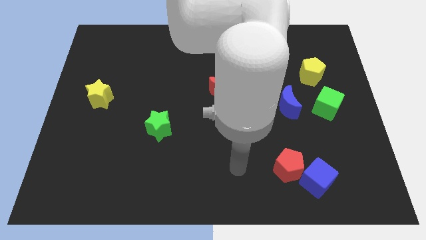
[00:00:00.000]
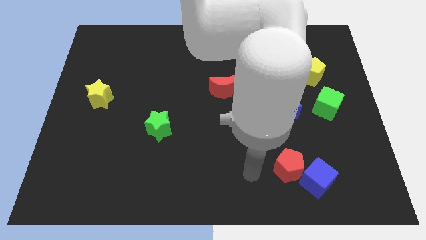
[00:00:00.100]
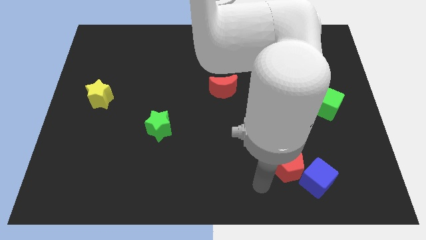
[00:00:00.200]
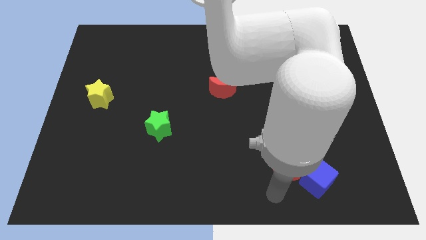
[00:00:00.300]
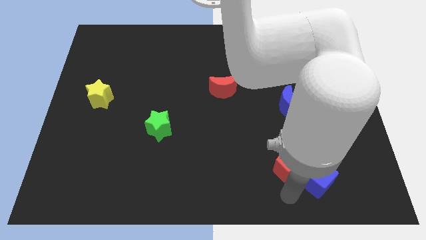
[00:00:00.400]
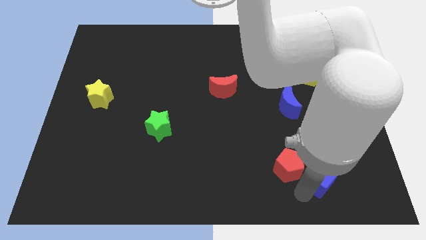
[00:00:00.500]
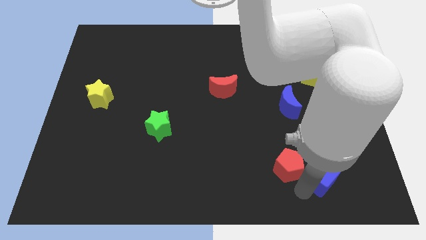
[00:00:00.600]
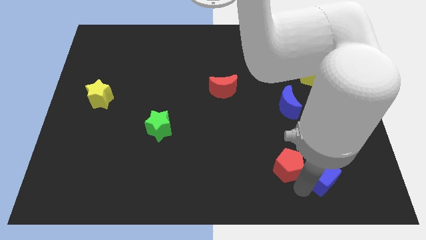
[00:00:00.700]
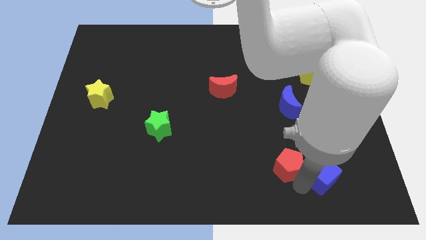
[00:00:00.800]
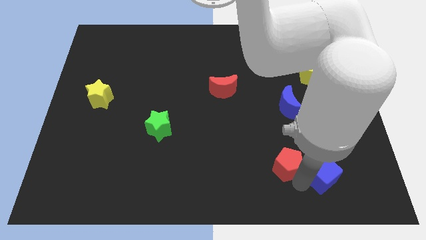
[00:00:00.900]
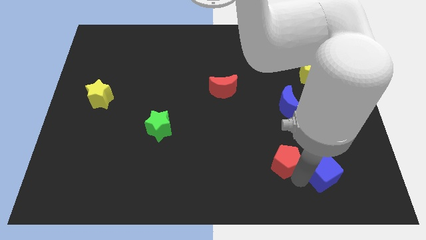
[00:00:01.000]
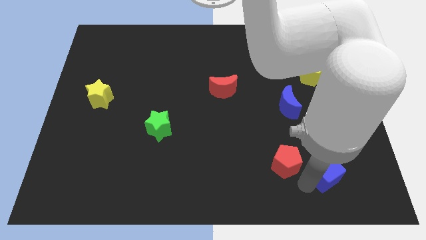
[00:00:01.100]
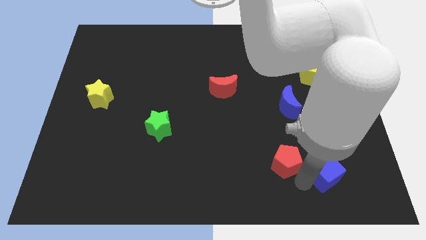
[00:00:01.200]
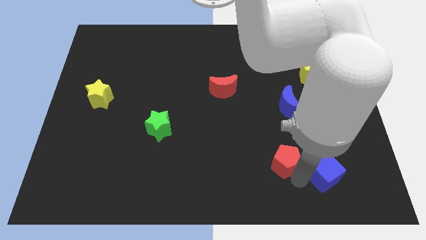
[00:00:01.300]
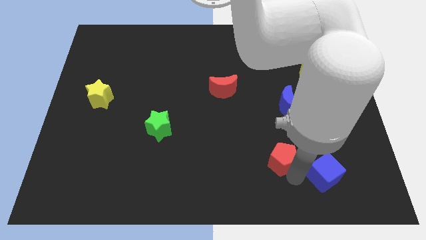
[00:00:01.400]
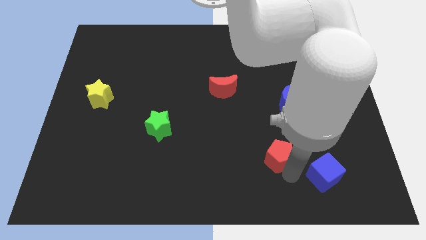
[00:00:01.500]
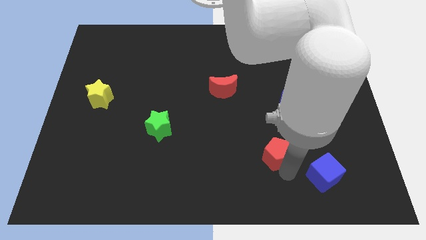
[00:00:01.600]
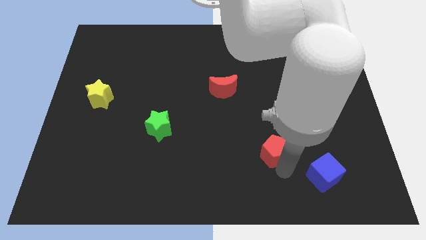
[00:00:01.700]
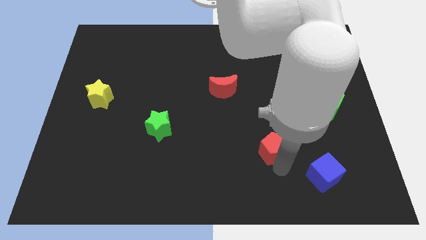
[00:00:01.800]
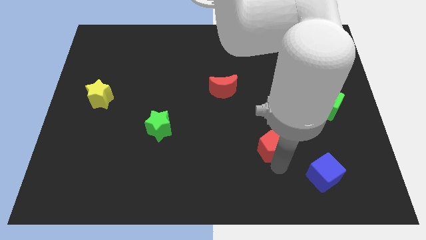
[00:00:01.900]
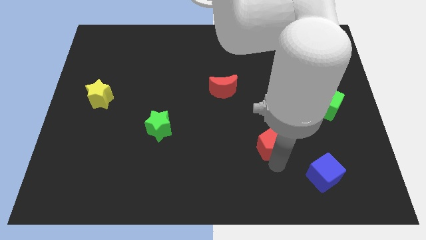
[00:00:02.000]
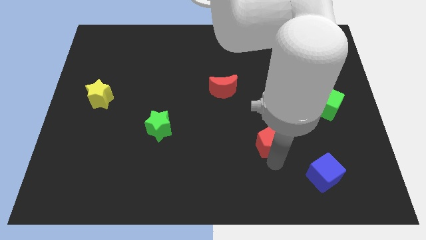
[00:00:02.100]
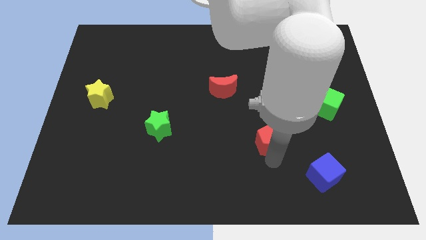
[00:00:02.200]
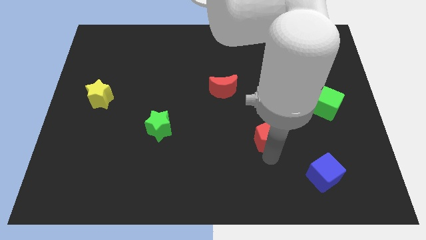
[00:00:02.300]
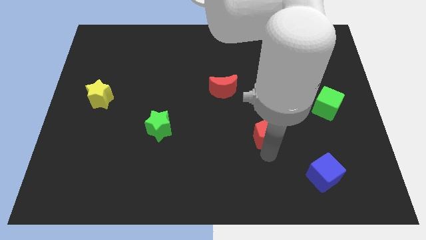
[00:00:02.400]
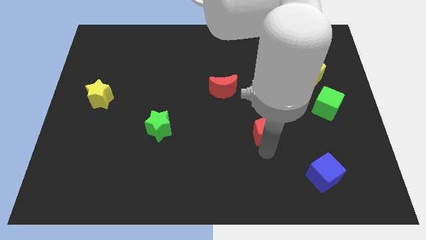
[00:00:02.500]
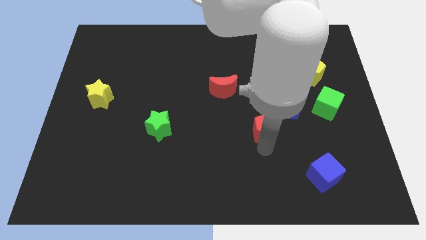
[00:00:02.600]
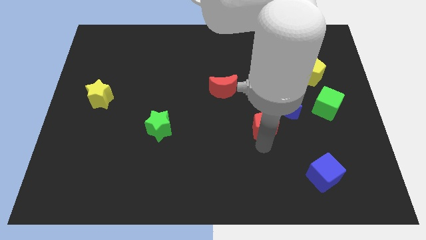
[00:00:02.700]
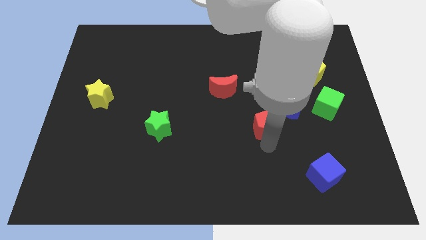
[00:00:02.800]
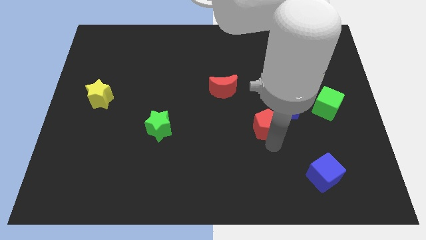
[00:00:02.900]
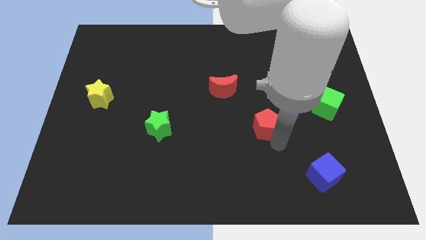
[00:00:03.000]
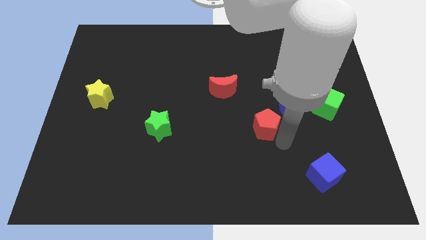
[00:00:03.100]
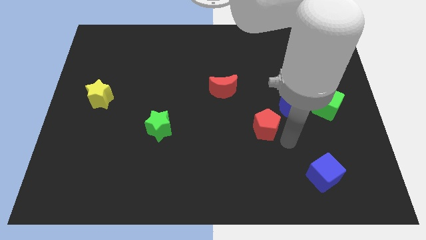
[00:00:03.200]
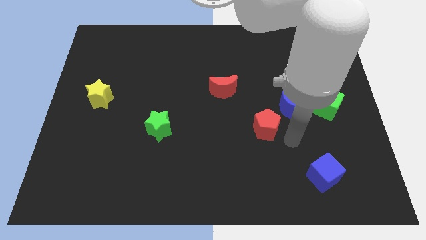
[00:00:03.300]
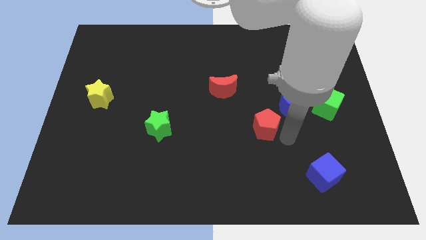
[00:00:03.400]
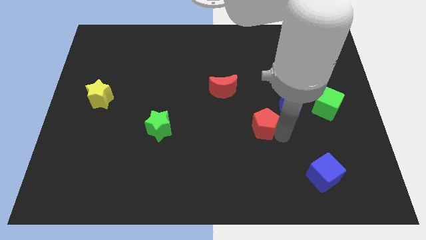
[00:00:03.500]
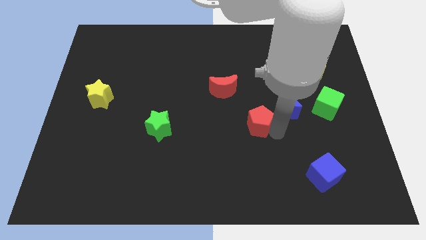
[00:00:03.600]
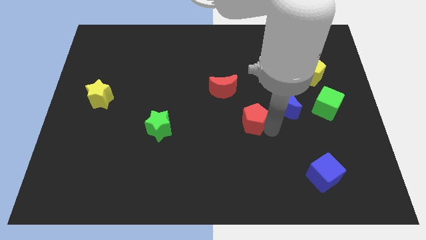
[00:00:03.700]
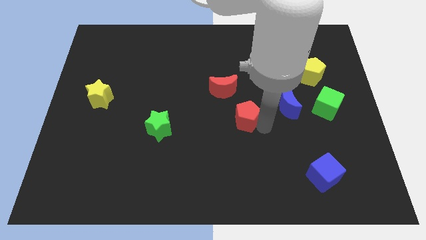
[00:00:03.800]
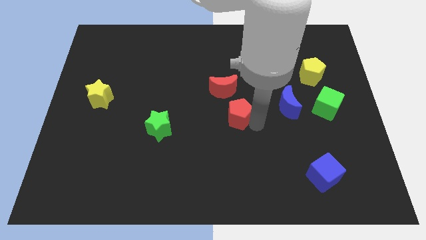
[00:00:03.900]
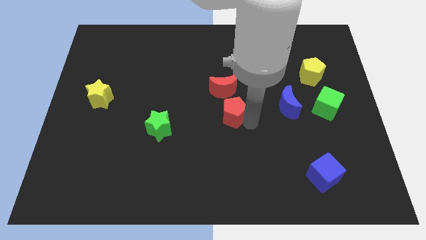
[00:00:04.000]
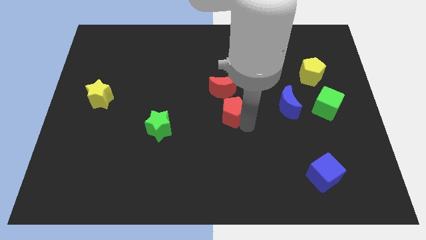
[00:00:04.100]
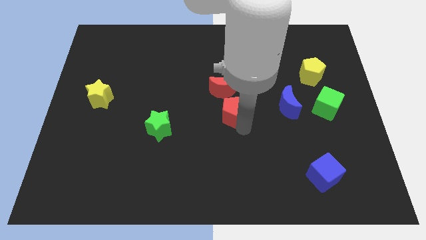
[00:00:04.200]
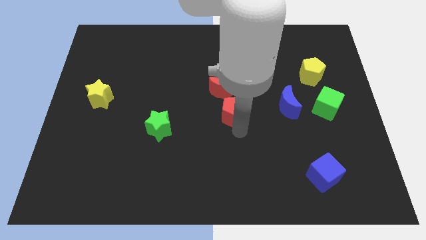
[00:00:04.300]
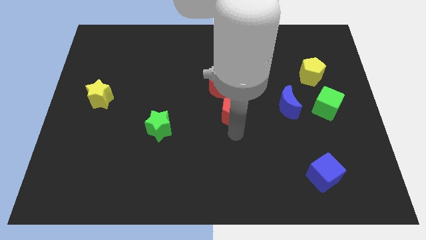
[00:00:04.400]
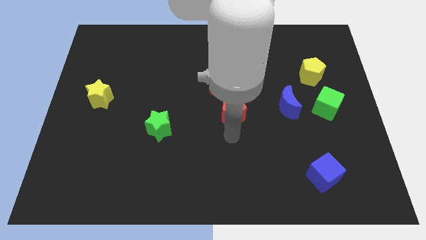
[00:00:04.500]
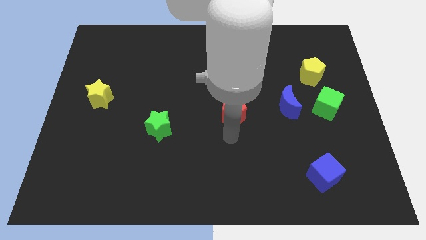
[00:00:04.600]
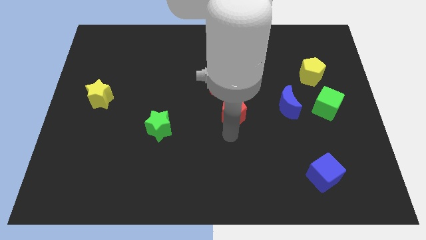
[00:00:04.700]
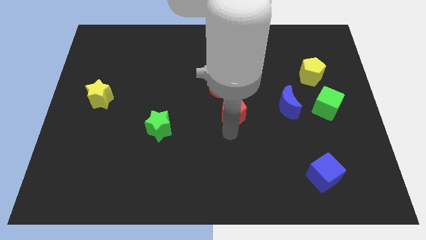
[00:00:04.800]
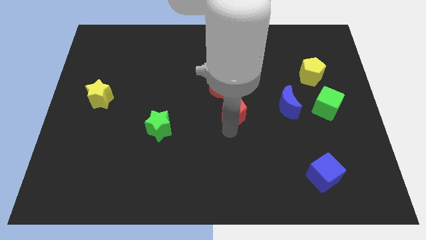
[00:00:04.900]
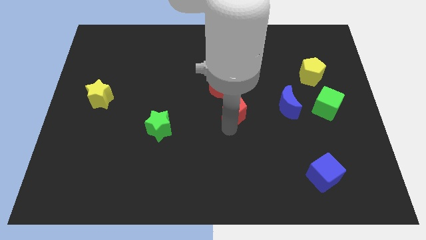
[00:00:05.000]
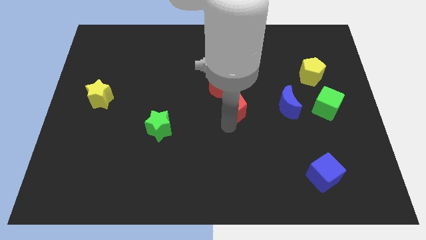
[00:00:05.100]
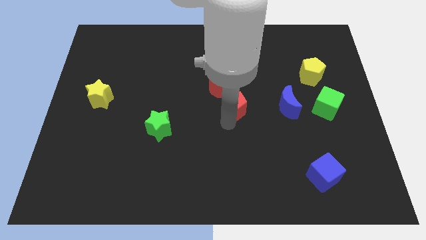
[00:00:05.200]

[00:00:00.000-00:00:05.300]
push the red pentagon to the red moon

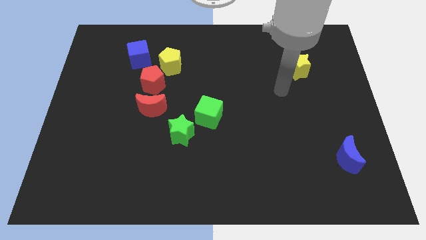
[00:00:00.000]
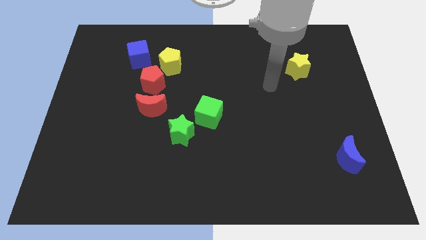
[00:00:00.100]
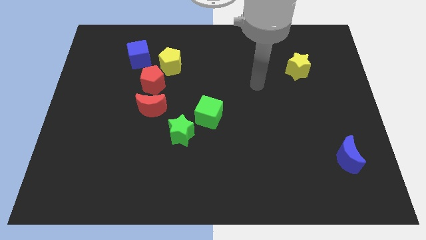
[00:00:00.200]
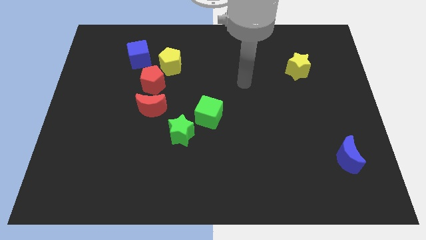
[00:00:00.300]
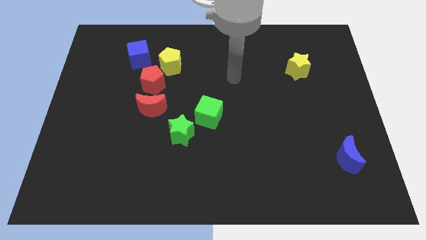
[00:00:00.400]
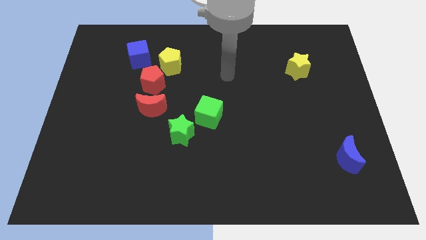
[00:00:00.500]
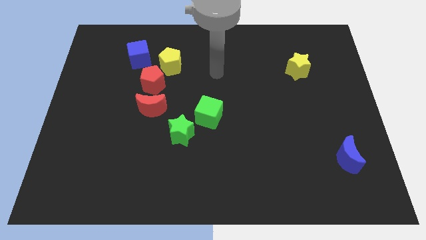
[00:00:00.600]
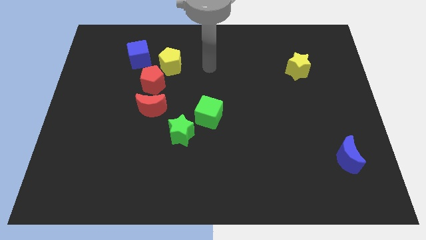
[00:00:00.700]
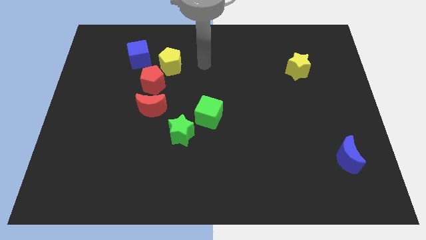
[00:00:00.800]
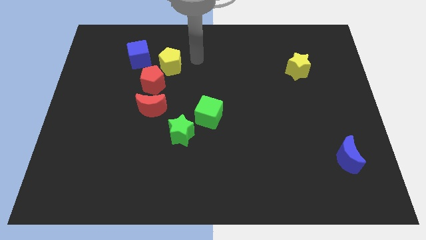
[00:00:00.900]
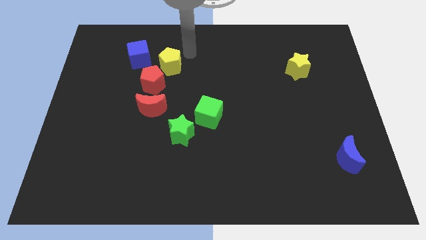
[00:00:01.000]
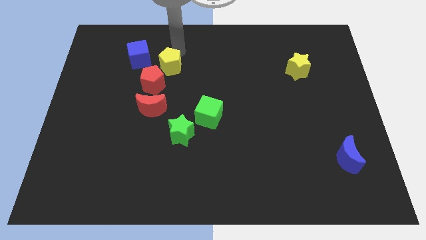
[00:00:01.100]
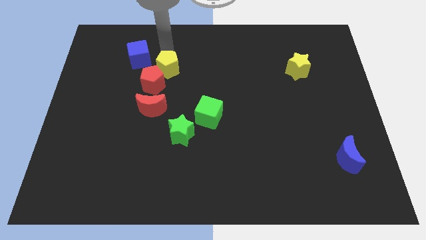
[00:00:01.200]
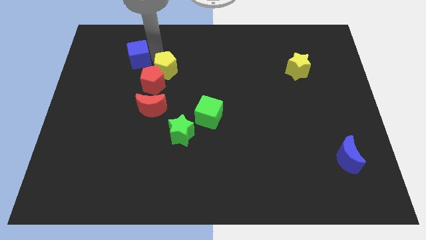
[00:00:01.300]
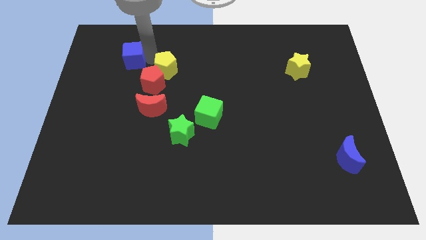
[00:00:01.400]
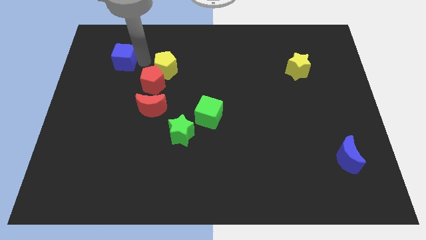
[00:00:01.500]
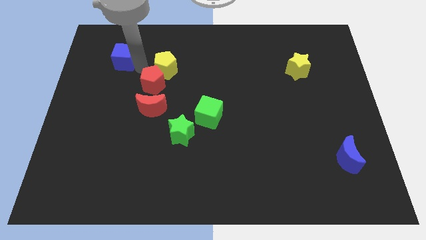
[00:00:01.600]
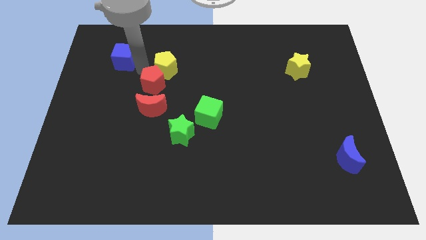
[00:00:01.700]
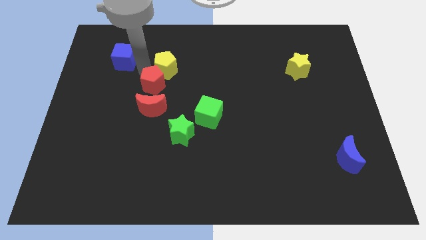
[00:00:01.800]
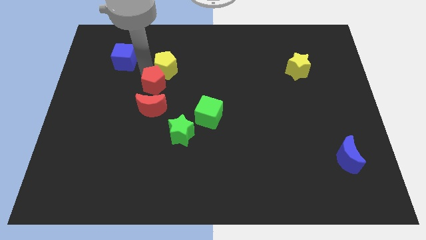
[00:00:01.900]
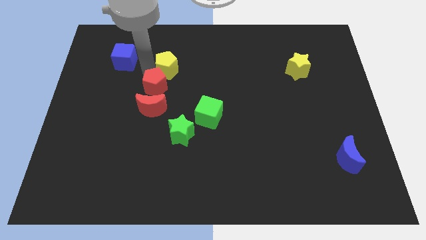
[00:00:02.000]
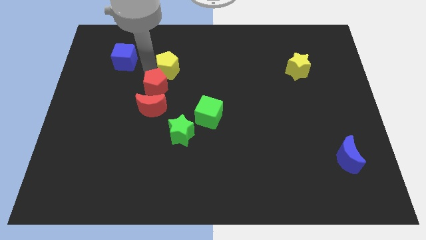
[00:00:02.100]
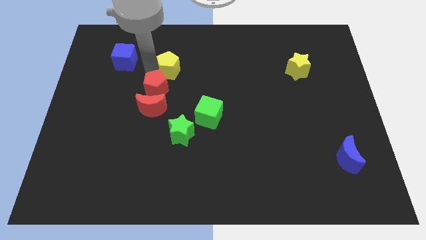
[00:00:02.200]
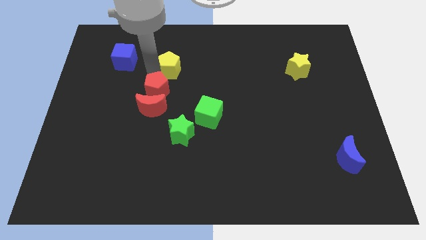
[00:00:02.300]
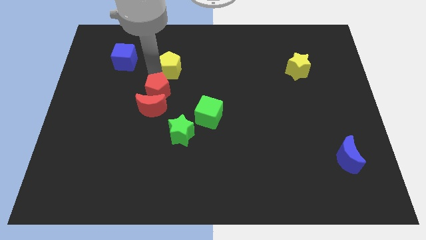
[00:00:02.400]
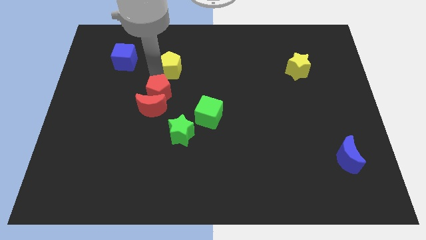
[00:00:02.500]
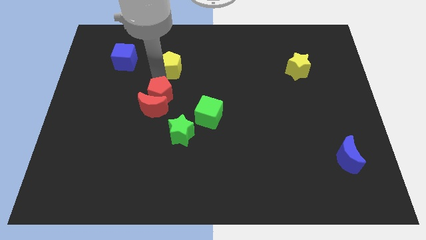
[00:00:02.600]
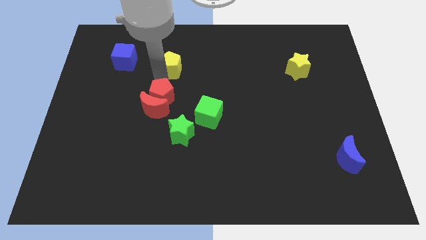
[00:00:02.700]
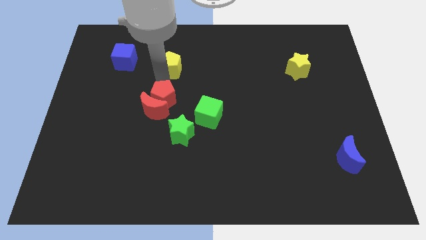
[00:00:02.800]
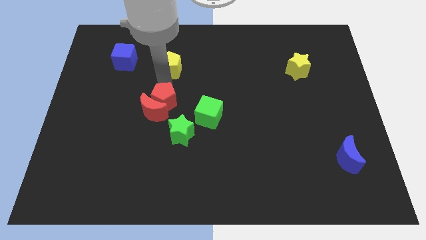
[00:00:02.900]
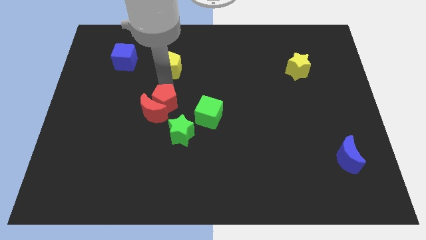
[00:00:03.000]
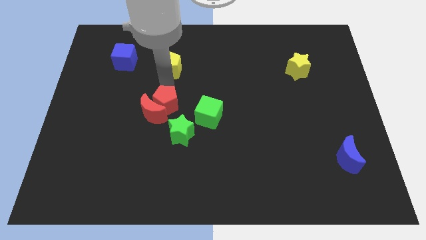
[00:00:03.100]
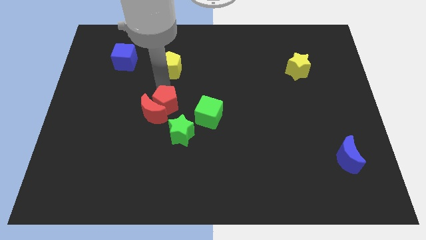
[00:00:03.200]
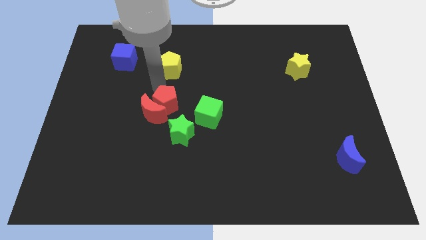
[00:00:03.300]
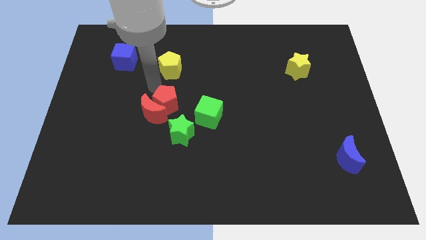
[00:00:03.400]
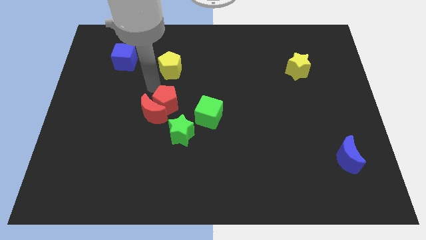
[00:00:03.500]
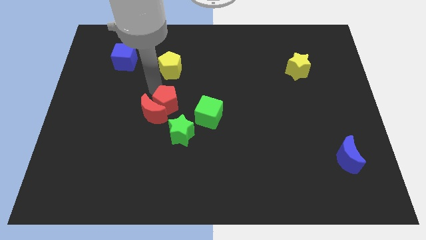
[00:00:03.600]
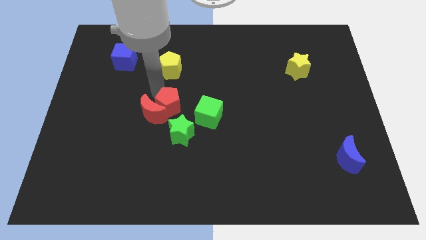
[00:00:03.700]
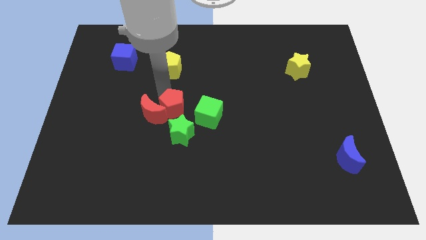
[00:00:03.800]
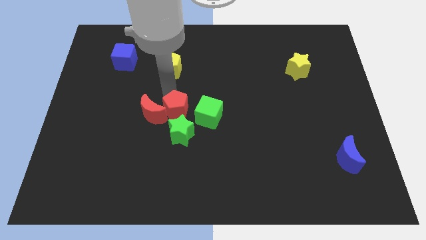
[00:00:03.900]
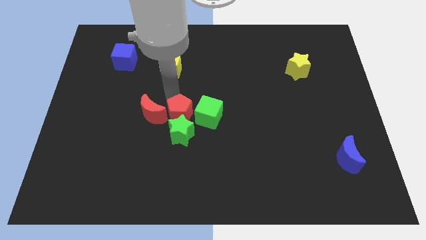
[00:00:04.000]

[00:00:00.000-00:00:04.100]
move the red pentagon towards the green star
